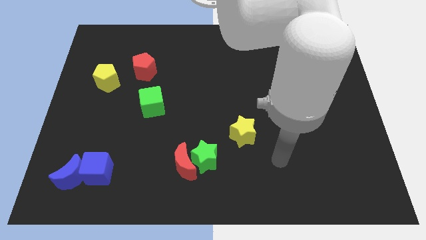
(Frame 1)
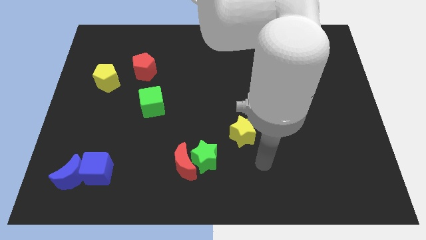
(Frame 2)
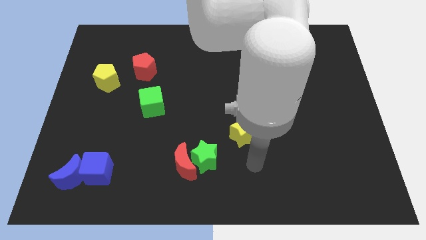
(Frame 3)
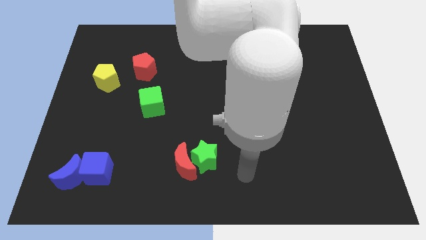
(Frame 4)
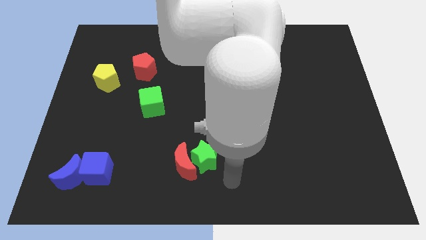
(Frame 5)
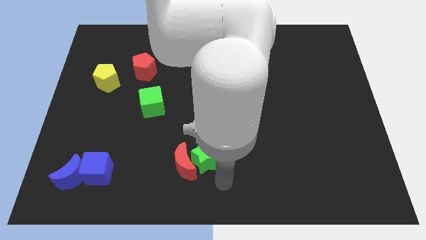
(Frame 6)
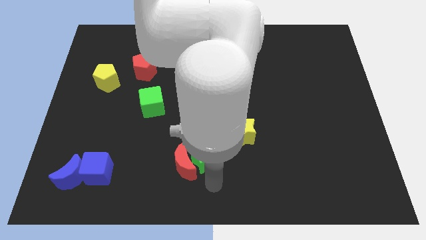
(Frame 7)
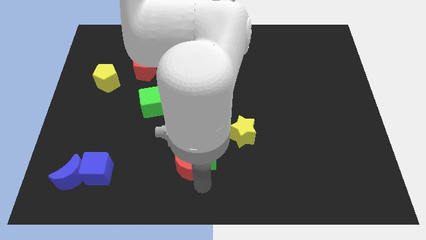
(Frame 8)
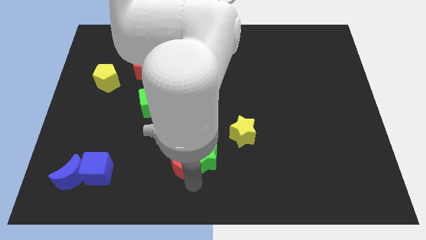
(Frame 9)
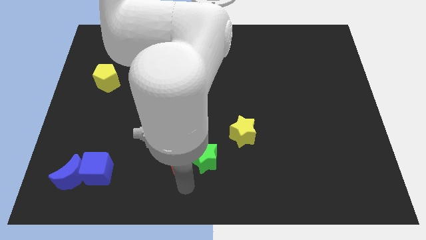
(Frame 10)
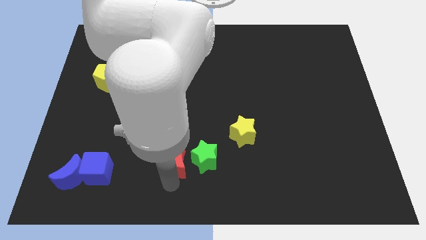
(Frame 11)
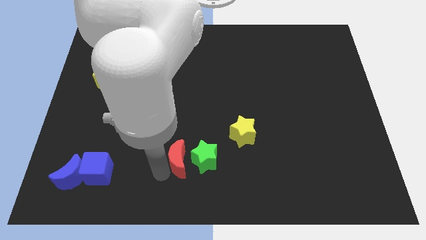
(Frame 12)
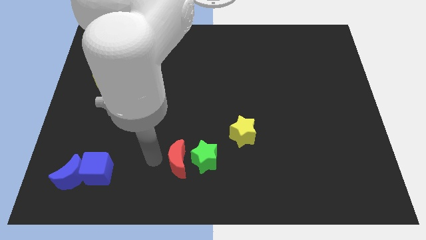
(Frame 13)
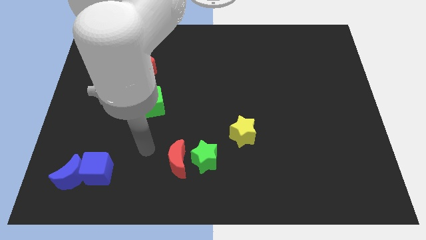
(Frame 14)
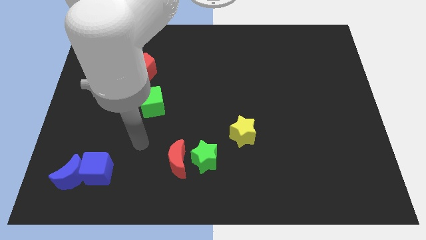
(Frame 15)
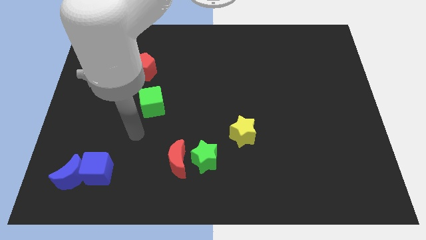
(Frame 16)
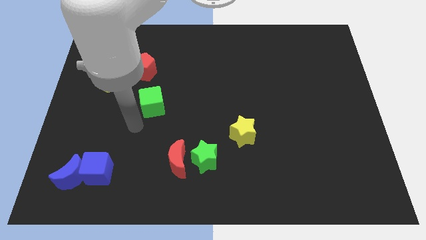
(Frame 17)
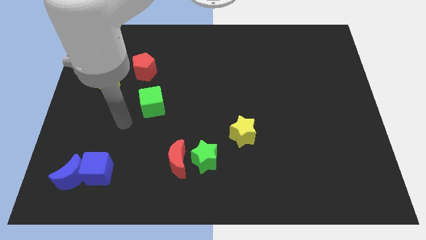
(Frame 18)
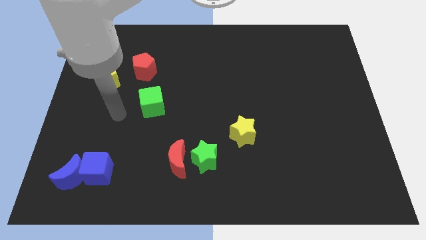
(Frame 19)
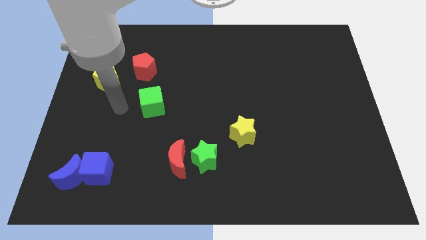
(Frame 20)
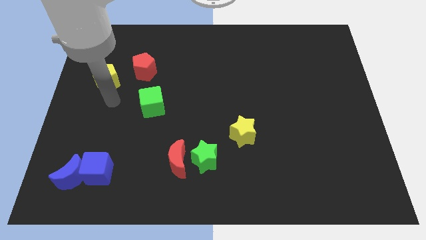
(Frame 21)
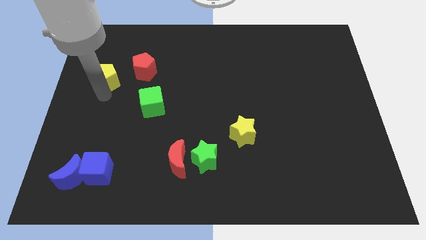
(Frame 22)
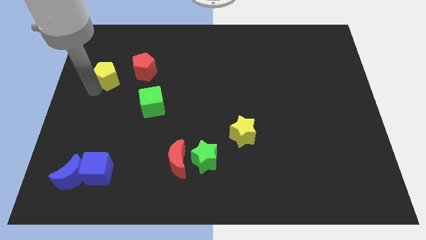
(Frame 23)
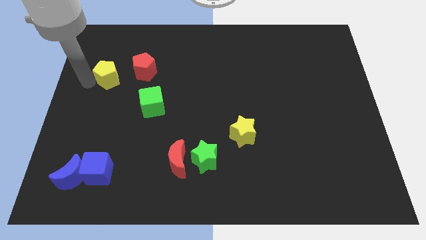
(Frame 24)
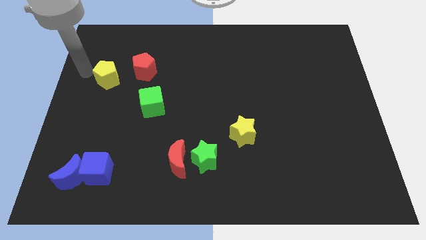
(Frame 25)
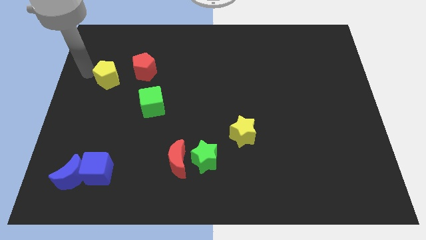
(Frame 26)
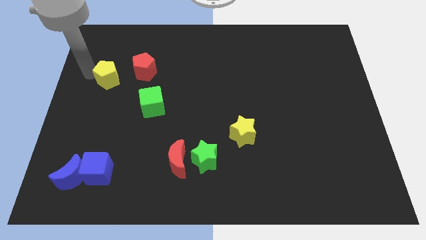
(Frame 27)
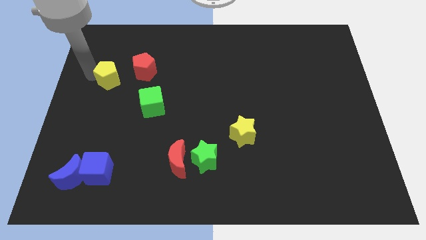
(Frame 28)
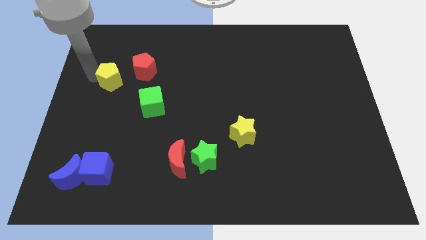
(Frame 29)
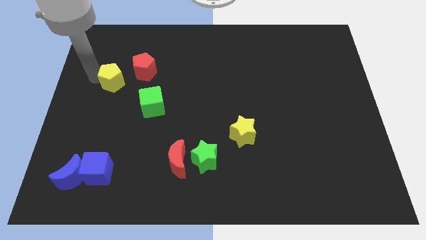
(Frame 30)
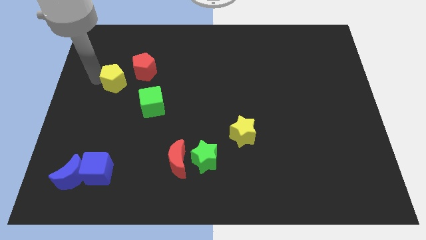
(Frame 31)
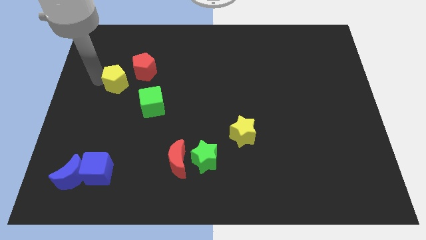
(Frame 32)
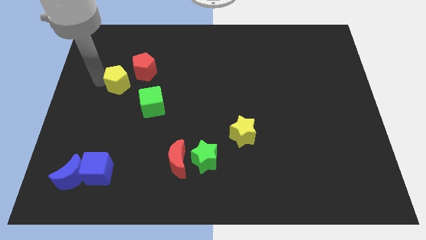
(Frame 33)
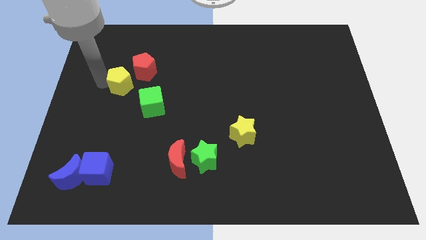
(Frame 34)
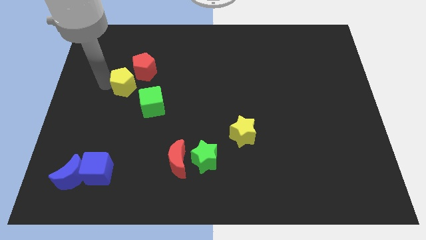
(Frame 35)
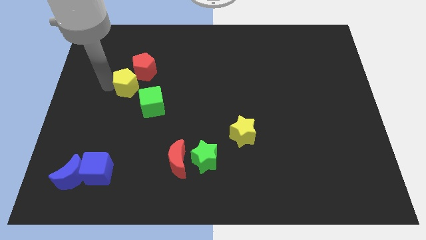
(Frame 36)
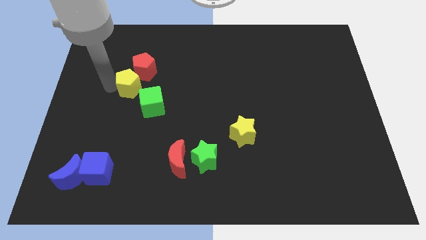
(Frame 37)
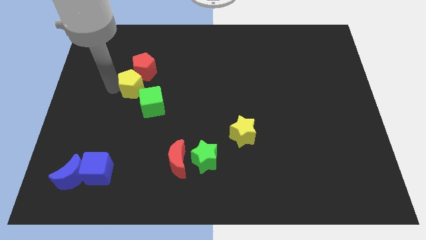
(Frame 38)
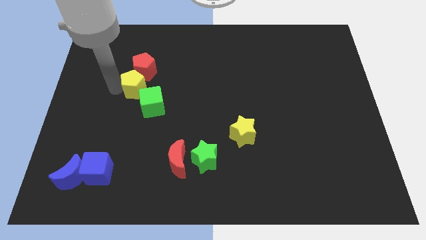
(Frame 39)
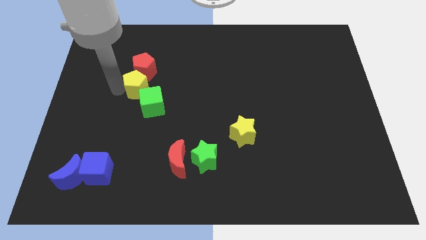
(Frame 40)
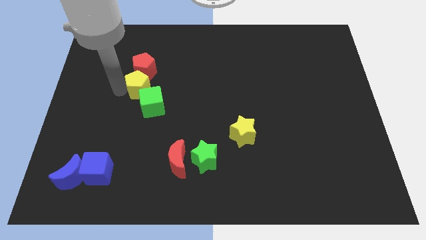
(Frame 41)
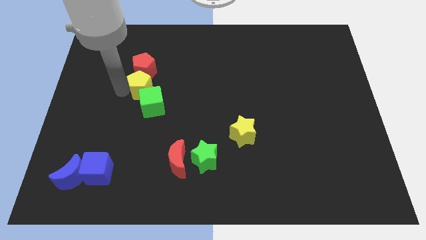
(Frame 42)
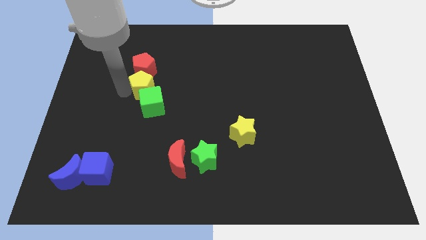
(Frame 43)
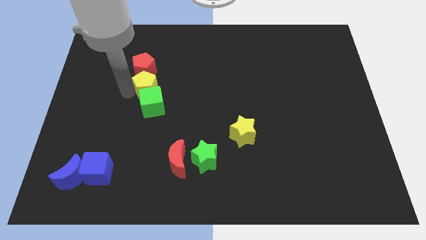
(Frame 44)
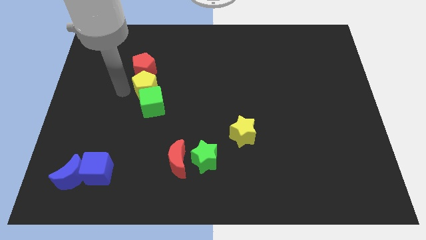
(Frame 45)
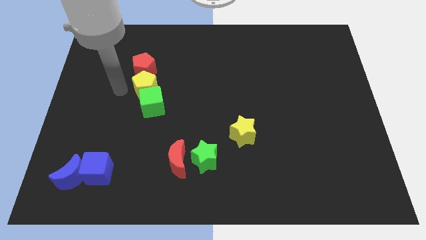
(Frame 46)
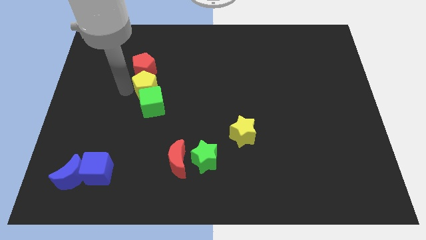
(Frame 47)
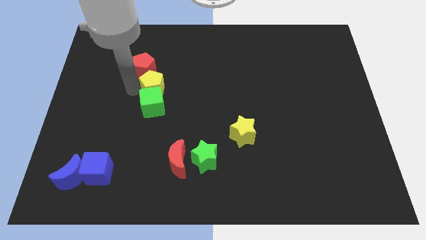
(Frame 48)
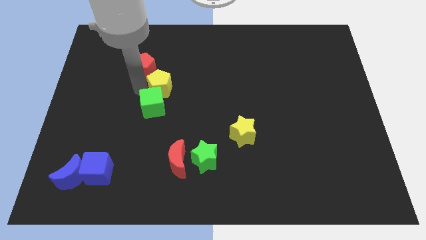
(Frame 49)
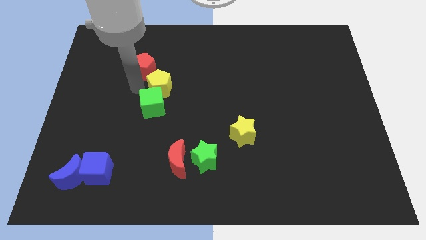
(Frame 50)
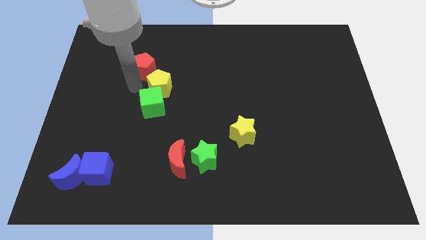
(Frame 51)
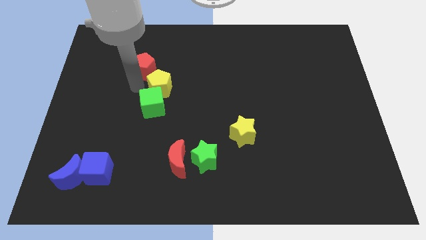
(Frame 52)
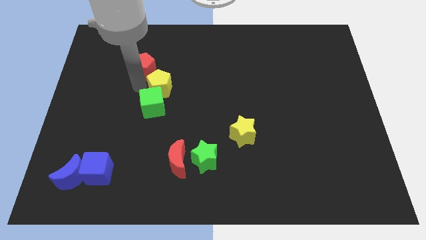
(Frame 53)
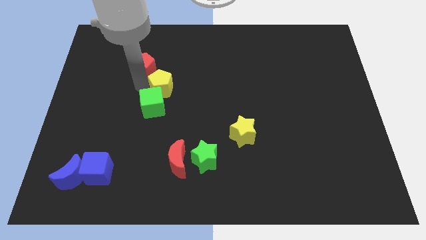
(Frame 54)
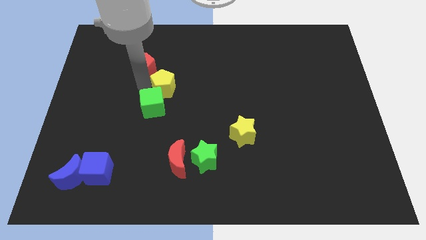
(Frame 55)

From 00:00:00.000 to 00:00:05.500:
push the yellow pentagon to the center of the board

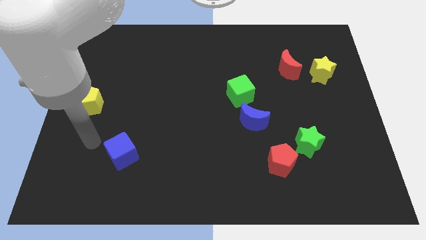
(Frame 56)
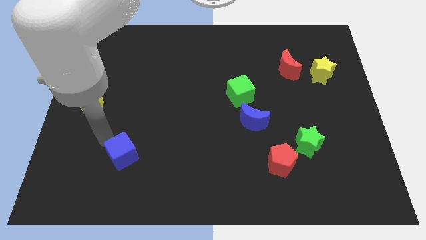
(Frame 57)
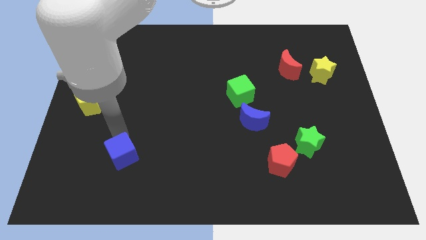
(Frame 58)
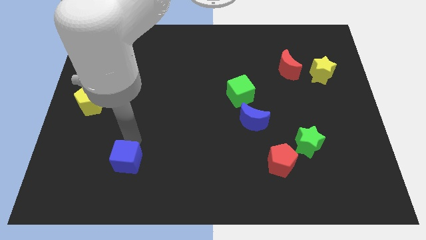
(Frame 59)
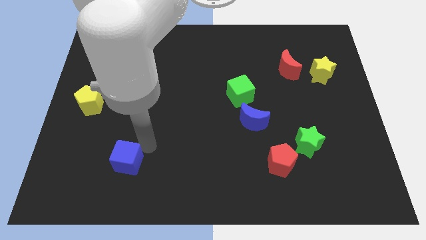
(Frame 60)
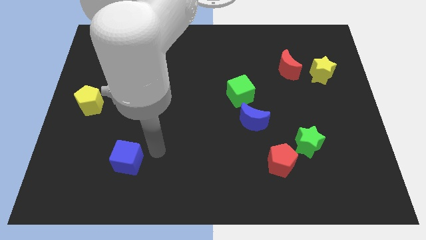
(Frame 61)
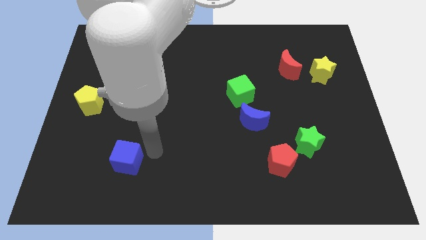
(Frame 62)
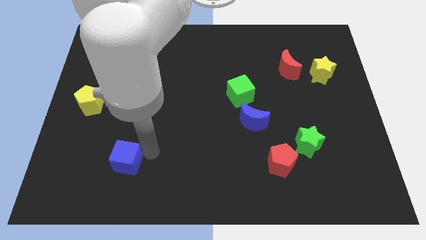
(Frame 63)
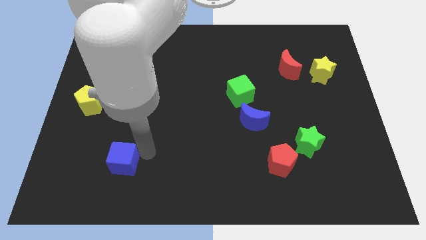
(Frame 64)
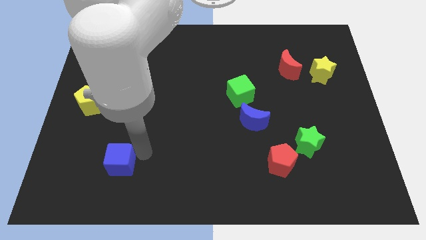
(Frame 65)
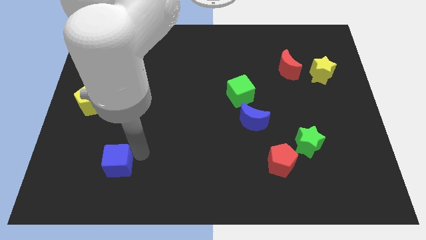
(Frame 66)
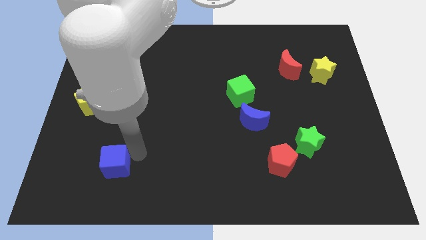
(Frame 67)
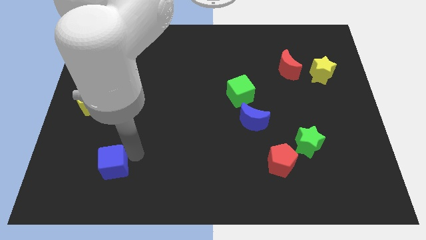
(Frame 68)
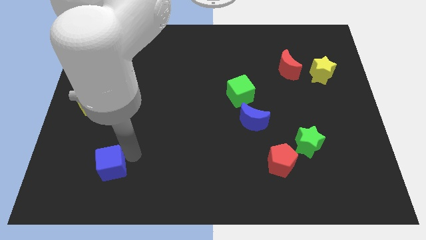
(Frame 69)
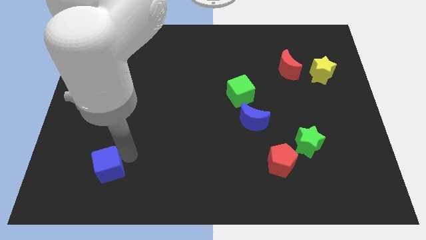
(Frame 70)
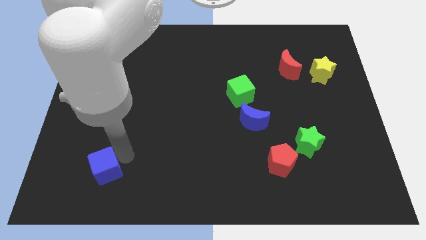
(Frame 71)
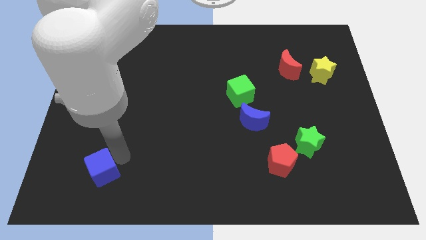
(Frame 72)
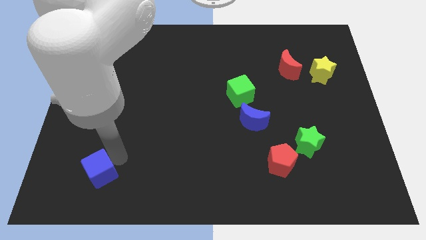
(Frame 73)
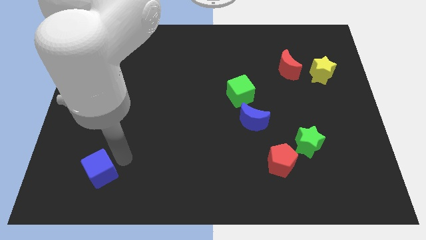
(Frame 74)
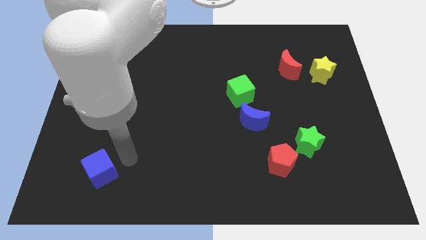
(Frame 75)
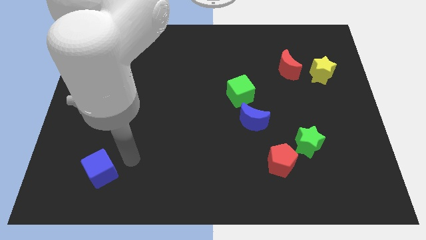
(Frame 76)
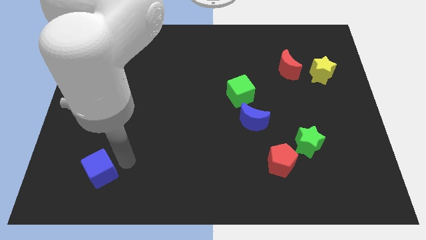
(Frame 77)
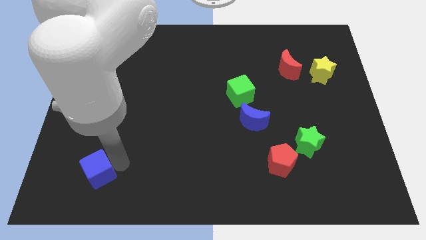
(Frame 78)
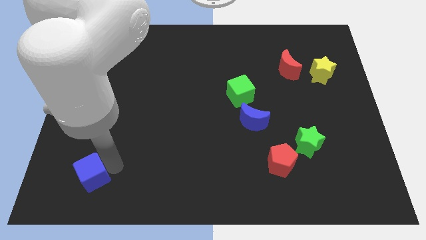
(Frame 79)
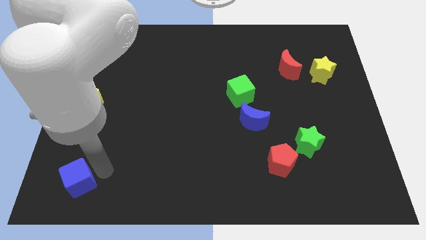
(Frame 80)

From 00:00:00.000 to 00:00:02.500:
put the blue cube to the lower left corner

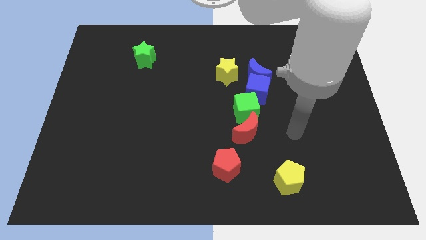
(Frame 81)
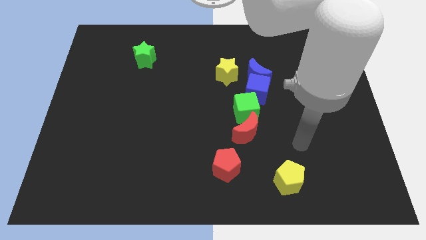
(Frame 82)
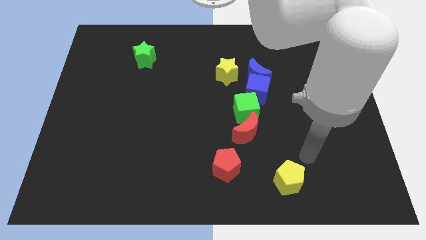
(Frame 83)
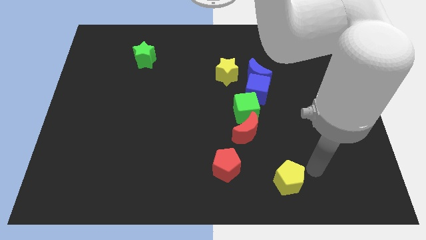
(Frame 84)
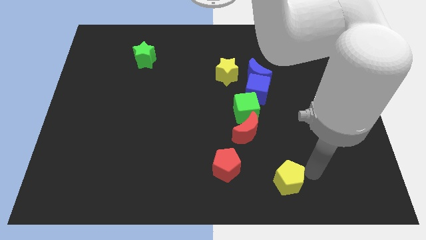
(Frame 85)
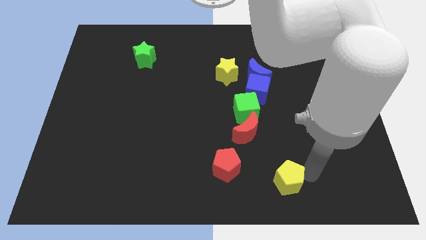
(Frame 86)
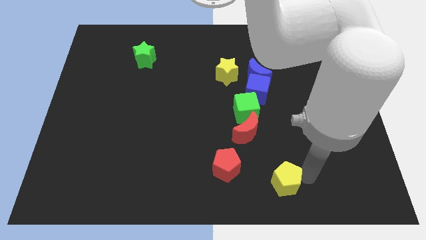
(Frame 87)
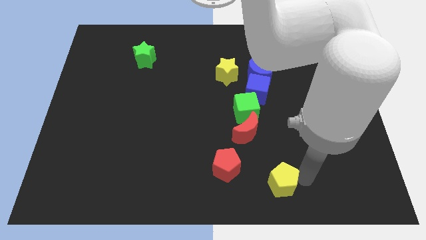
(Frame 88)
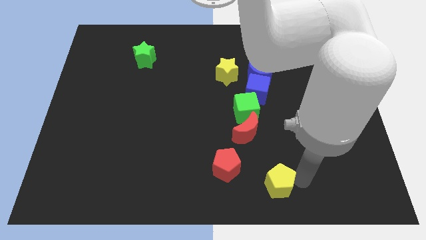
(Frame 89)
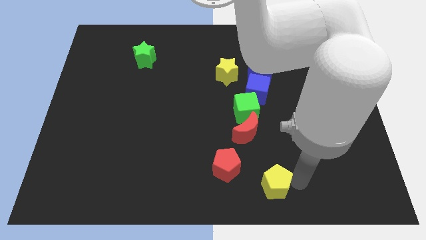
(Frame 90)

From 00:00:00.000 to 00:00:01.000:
move the yellow pentagon to the bottom
